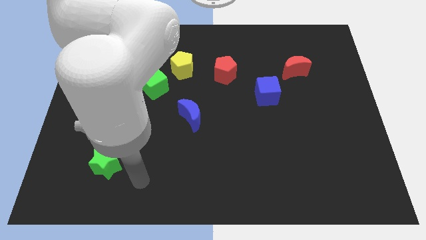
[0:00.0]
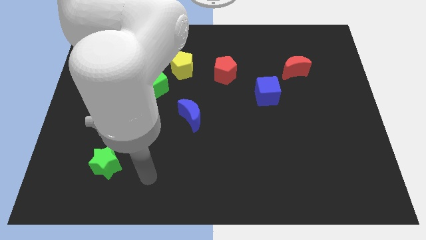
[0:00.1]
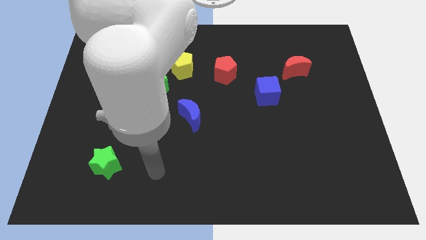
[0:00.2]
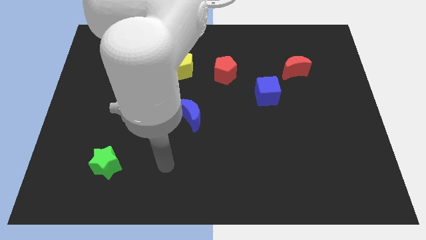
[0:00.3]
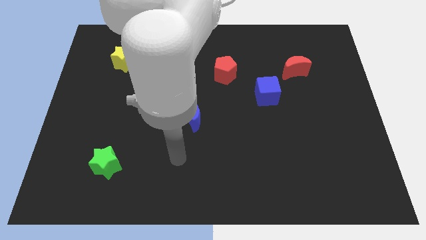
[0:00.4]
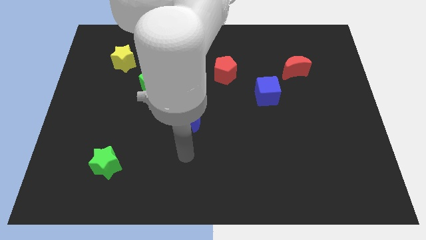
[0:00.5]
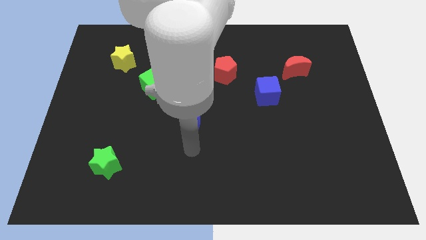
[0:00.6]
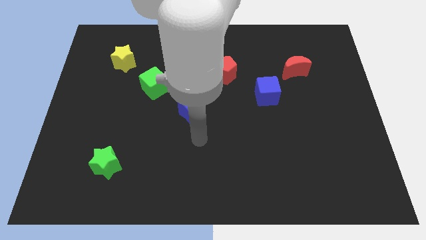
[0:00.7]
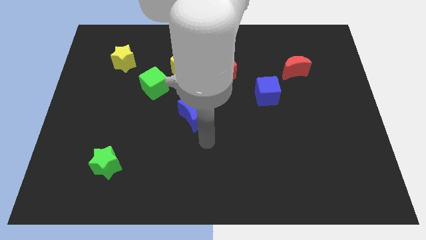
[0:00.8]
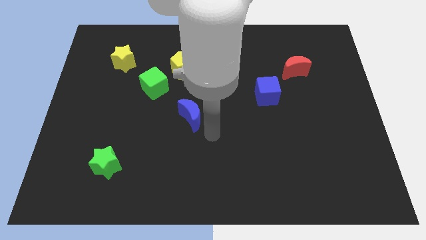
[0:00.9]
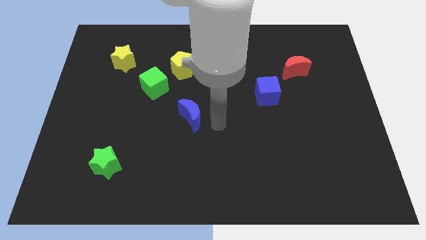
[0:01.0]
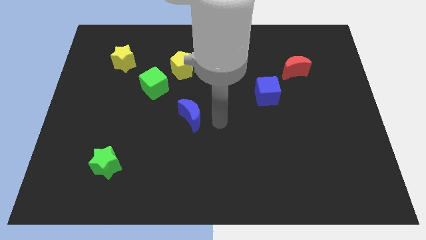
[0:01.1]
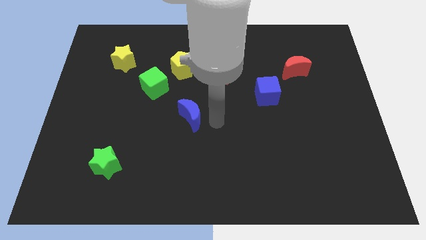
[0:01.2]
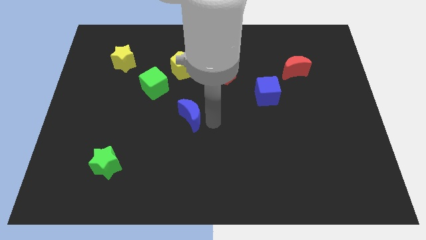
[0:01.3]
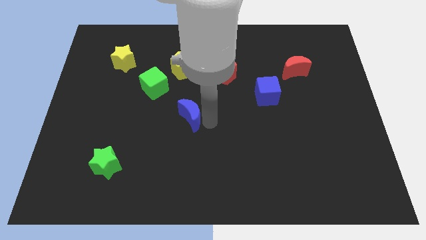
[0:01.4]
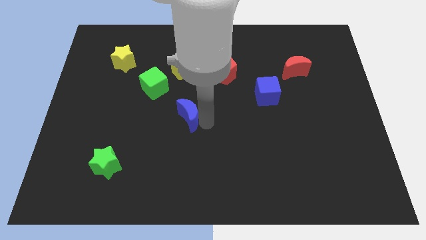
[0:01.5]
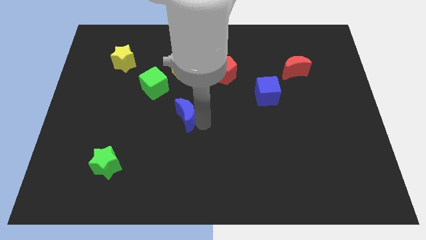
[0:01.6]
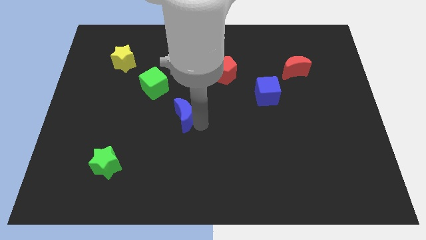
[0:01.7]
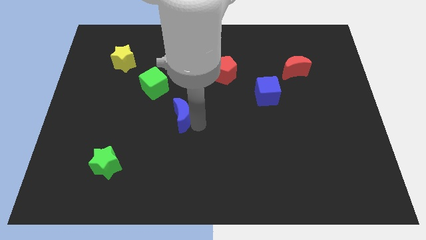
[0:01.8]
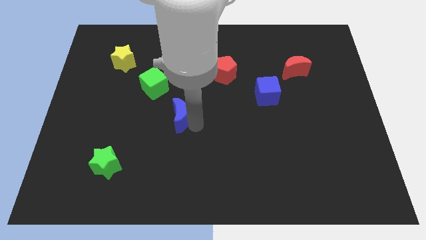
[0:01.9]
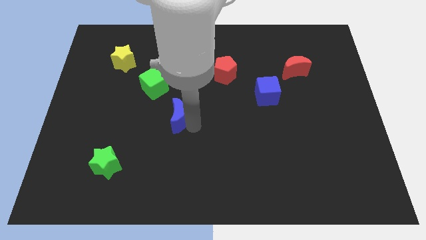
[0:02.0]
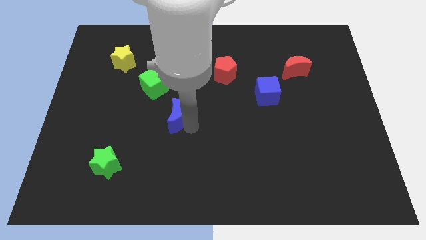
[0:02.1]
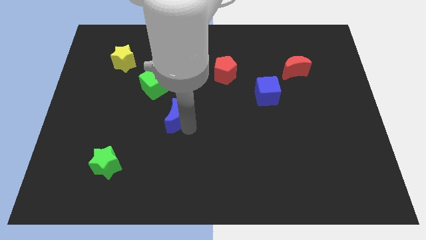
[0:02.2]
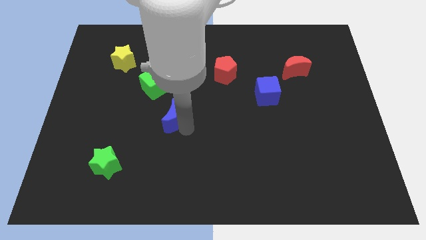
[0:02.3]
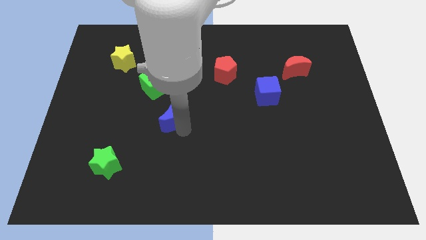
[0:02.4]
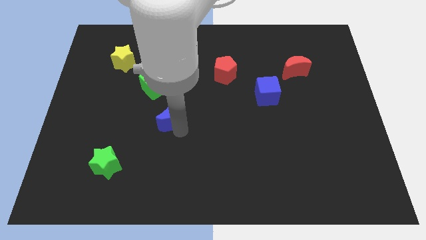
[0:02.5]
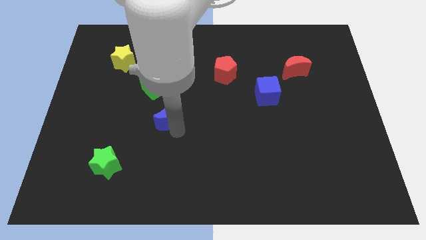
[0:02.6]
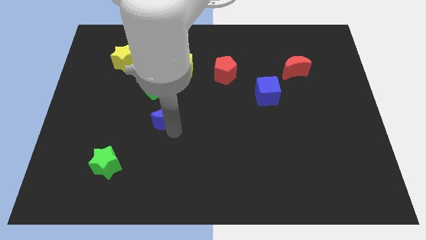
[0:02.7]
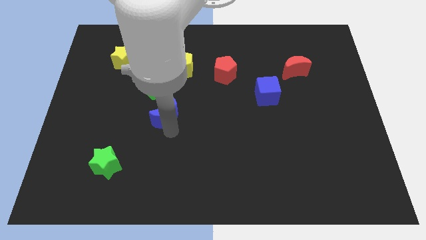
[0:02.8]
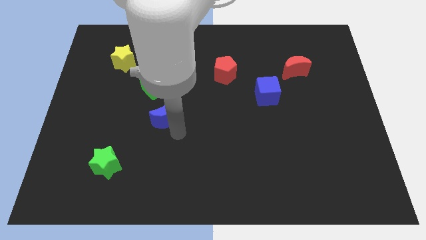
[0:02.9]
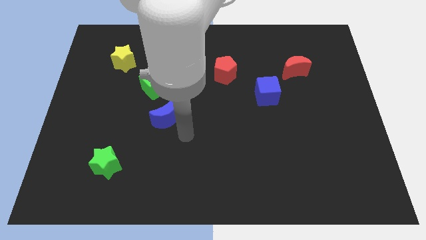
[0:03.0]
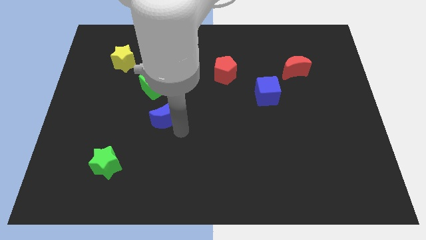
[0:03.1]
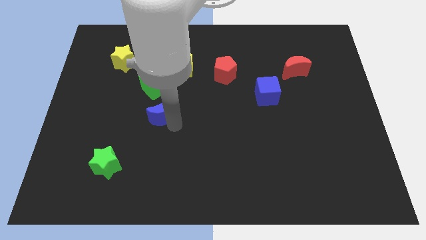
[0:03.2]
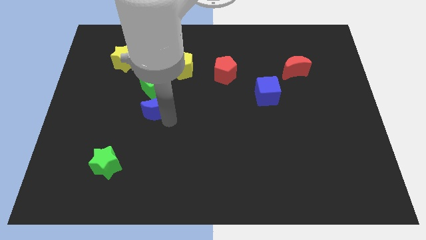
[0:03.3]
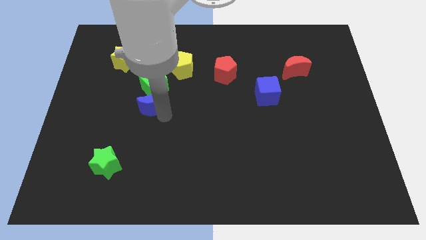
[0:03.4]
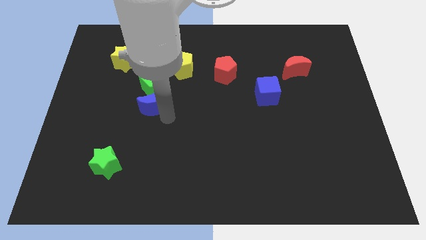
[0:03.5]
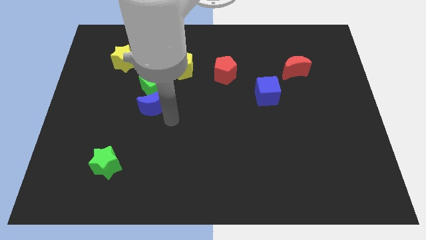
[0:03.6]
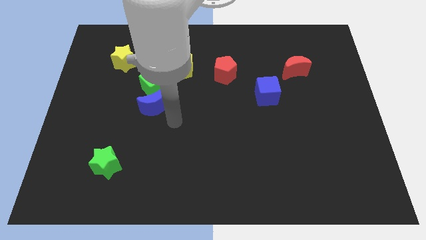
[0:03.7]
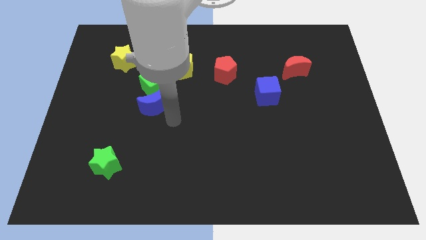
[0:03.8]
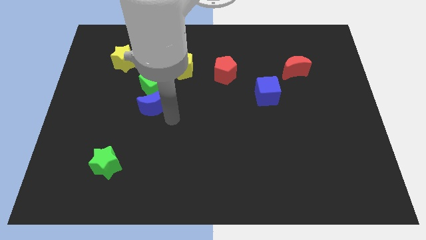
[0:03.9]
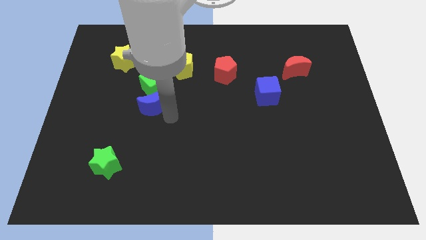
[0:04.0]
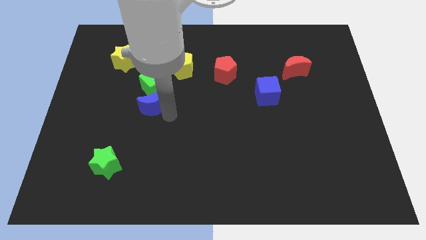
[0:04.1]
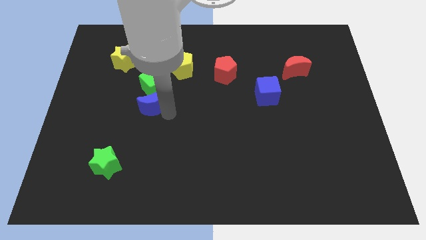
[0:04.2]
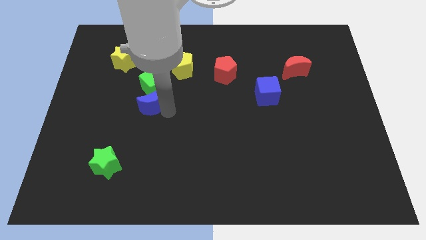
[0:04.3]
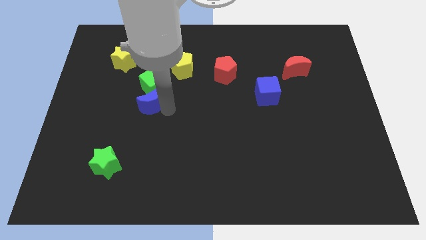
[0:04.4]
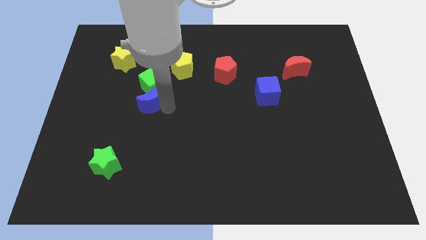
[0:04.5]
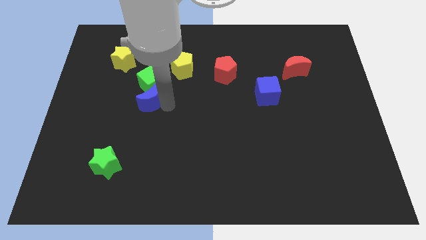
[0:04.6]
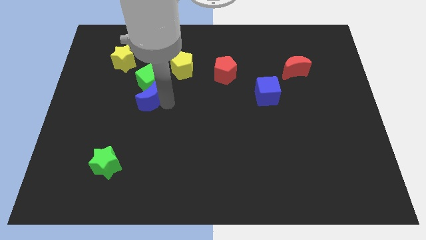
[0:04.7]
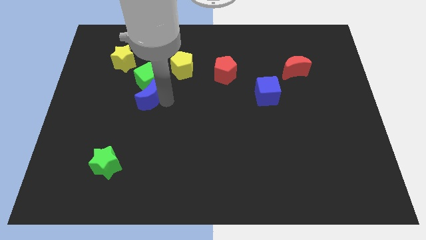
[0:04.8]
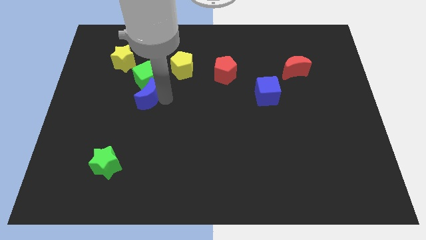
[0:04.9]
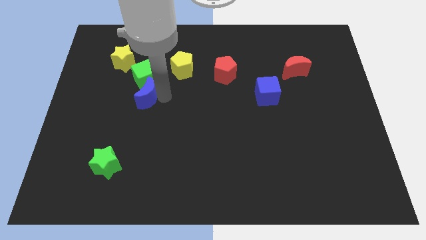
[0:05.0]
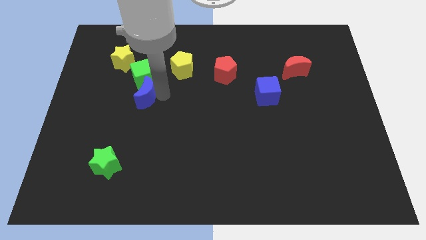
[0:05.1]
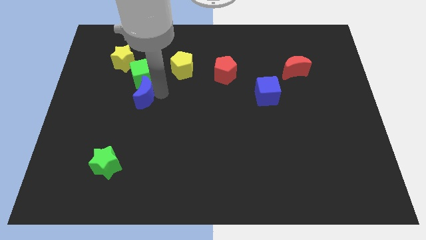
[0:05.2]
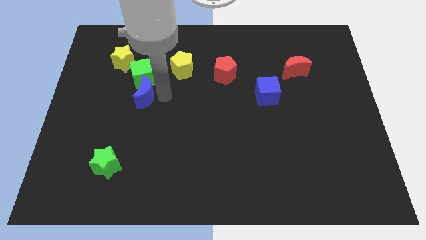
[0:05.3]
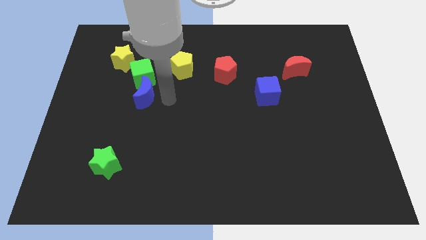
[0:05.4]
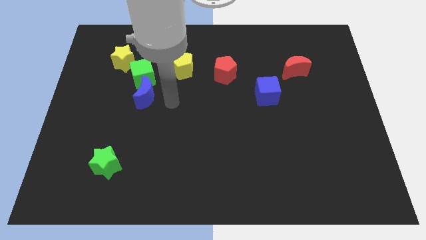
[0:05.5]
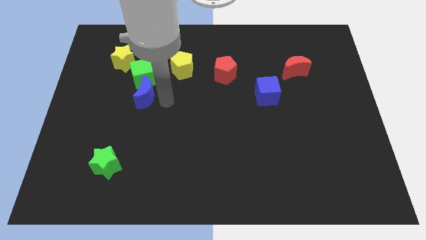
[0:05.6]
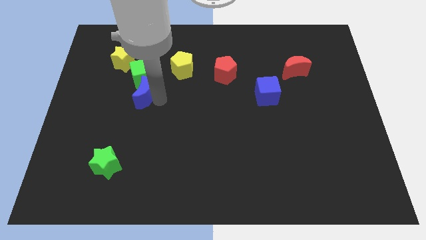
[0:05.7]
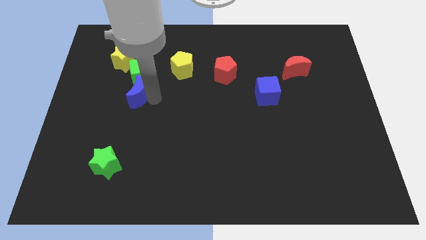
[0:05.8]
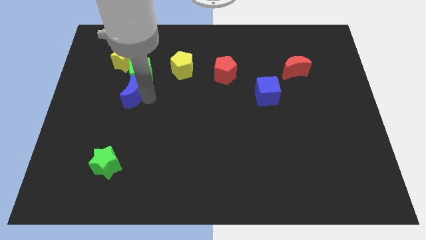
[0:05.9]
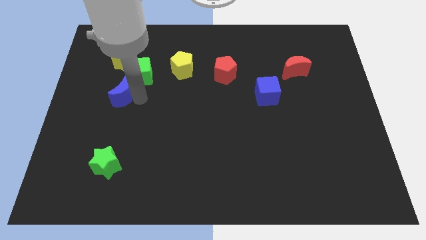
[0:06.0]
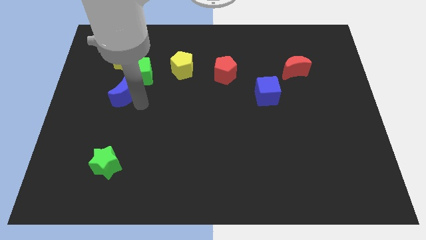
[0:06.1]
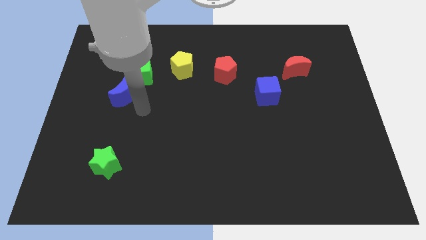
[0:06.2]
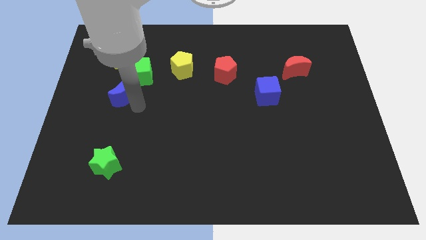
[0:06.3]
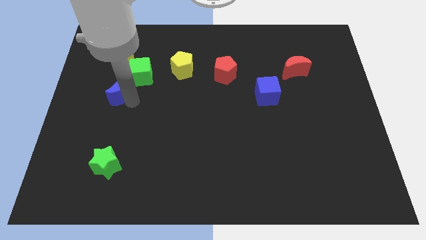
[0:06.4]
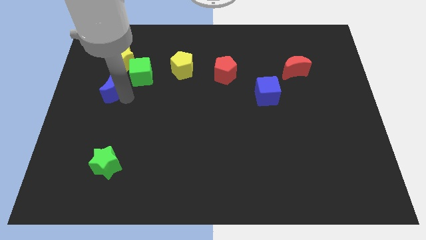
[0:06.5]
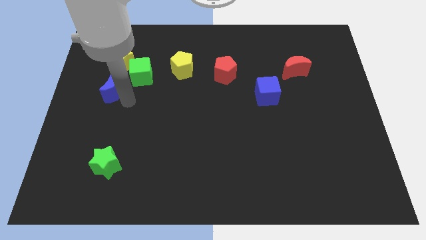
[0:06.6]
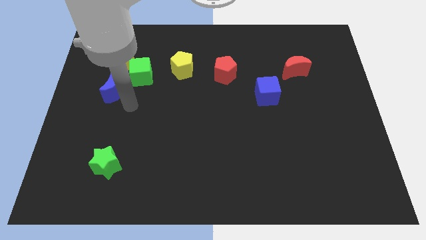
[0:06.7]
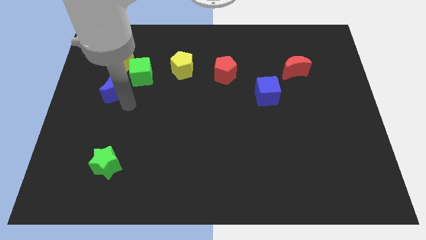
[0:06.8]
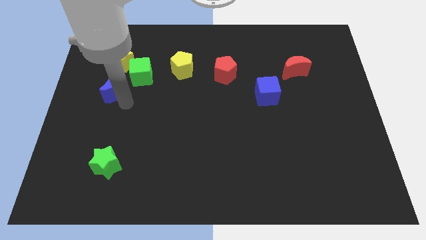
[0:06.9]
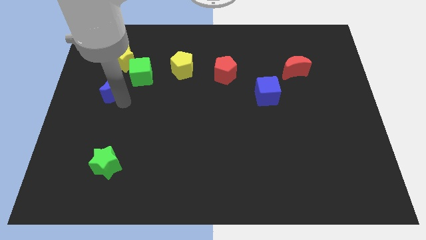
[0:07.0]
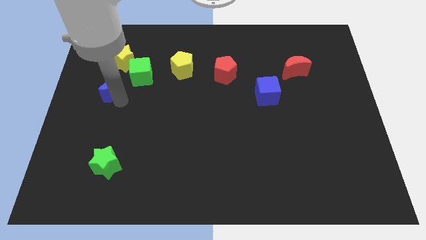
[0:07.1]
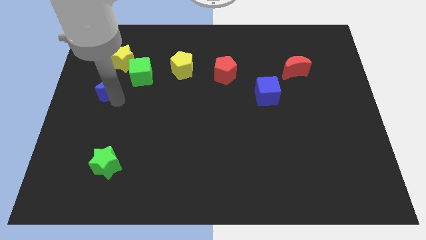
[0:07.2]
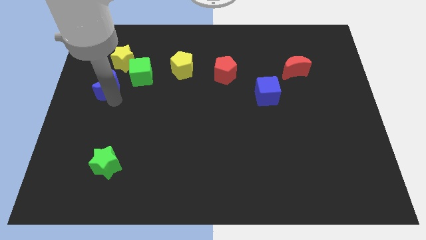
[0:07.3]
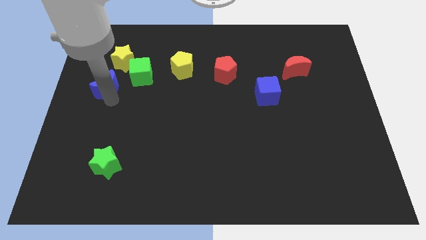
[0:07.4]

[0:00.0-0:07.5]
slide the blue moon to the bottom left of the yellow star
